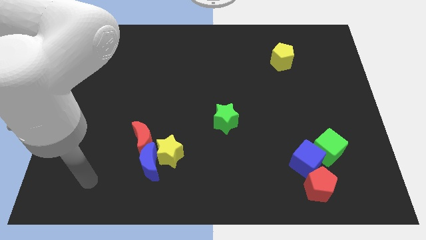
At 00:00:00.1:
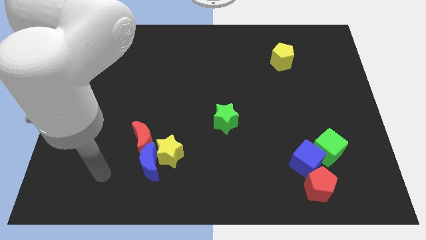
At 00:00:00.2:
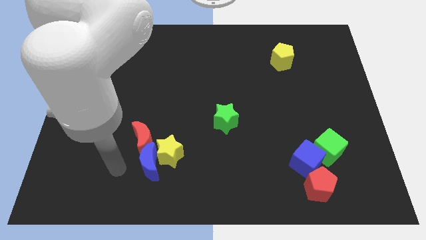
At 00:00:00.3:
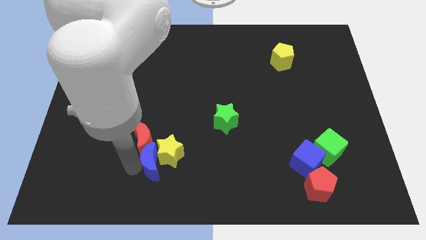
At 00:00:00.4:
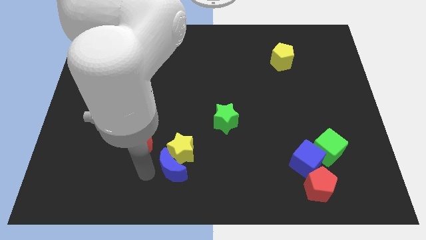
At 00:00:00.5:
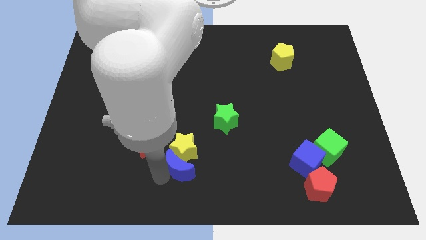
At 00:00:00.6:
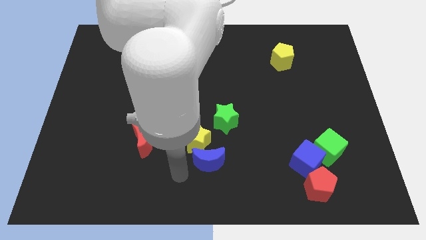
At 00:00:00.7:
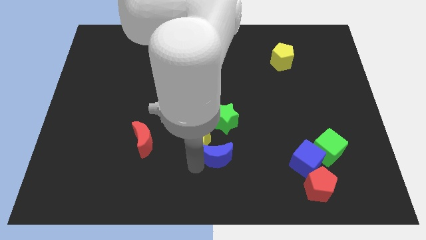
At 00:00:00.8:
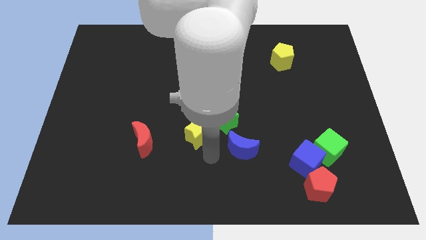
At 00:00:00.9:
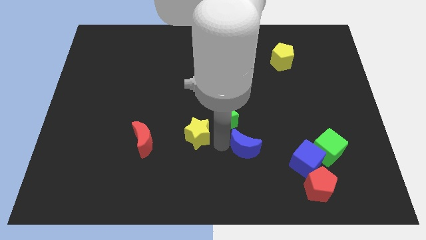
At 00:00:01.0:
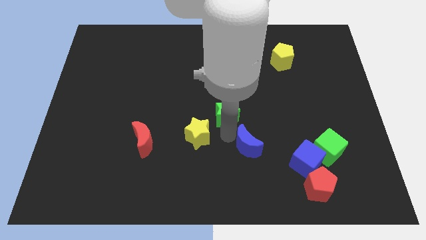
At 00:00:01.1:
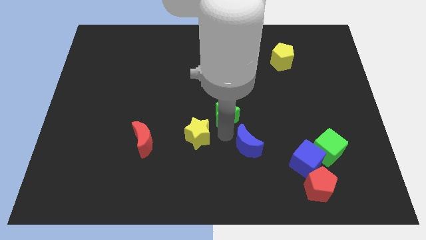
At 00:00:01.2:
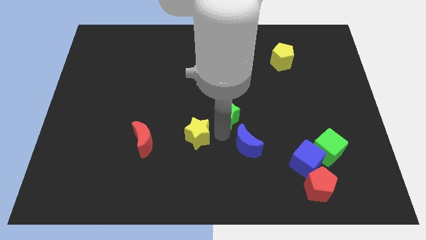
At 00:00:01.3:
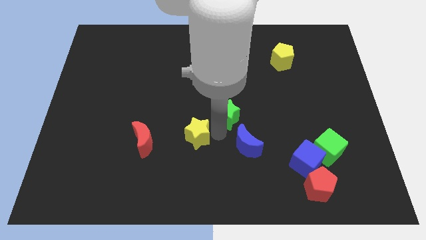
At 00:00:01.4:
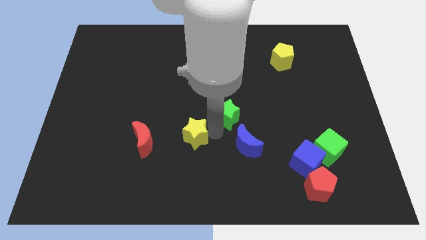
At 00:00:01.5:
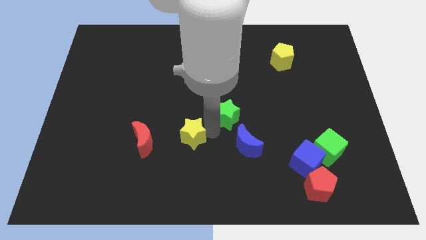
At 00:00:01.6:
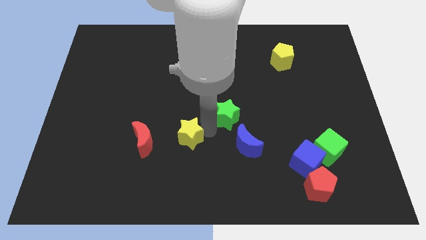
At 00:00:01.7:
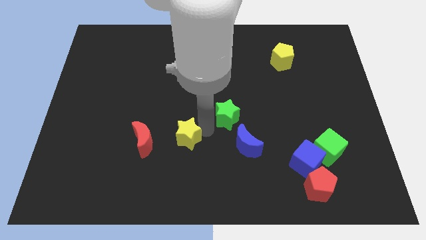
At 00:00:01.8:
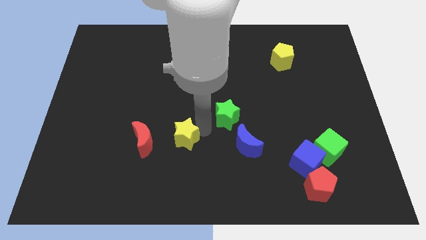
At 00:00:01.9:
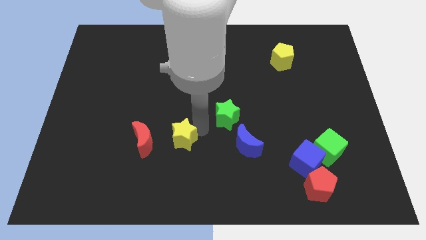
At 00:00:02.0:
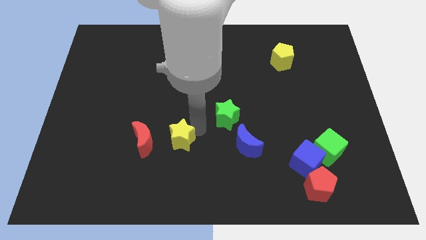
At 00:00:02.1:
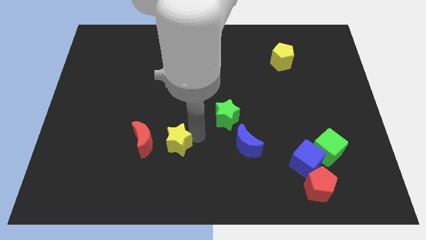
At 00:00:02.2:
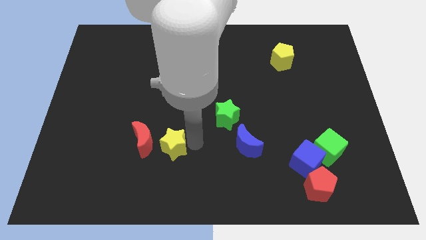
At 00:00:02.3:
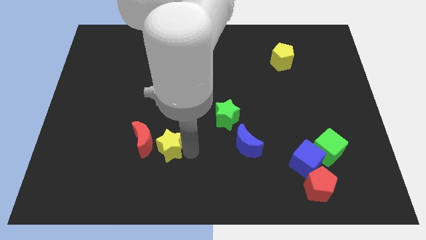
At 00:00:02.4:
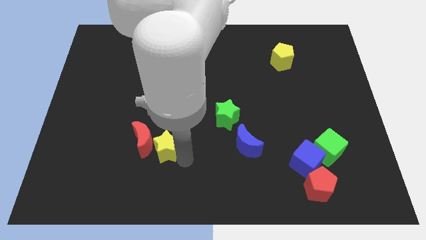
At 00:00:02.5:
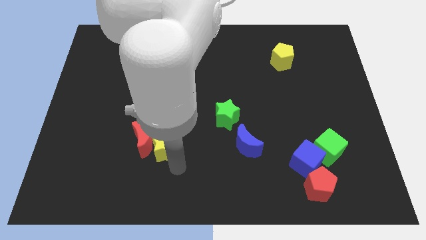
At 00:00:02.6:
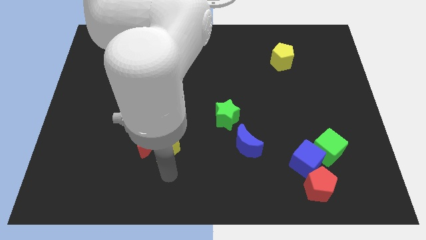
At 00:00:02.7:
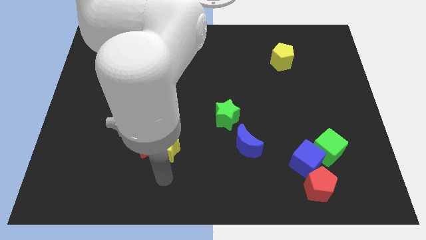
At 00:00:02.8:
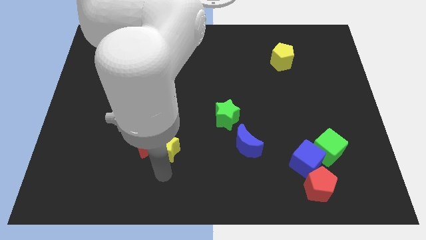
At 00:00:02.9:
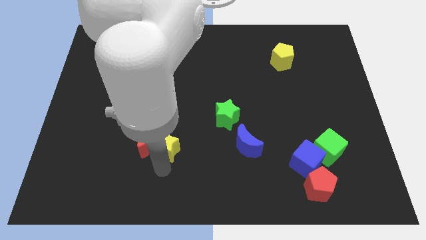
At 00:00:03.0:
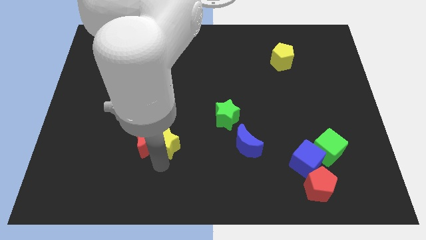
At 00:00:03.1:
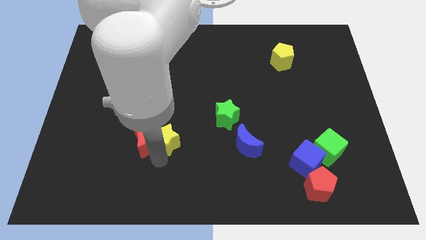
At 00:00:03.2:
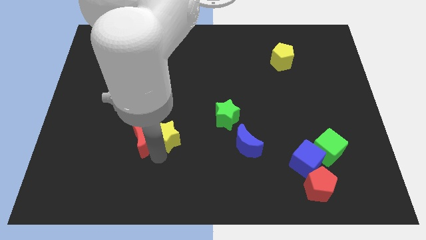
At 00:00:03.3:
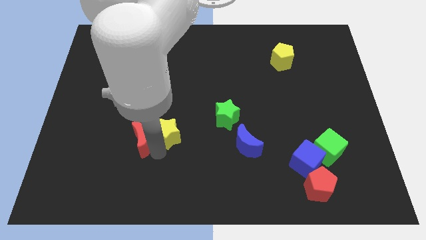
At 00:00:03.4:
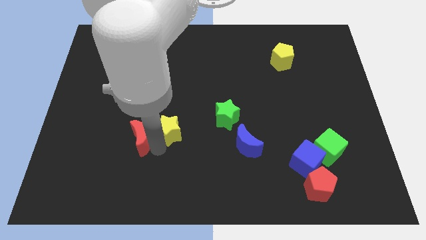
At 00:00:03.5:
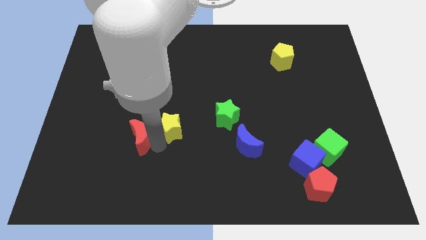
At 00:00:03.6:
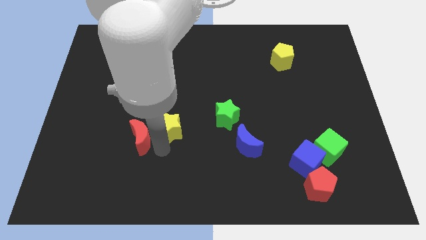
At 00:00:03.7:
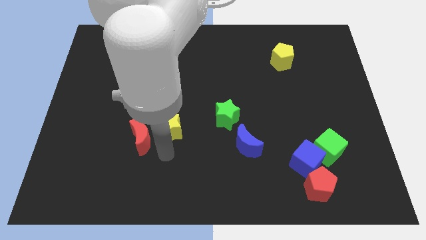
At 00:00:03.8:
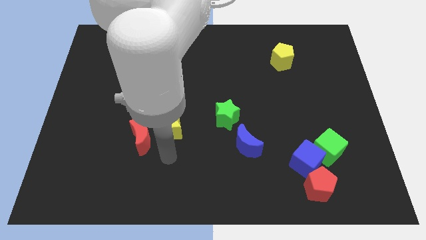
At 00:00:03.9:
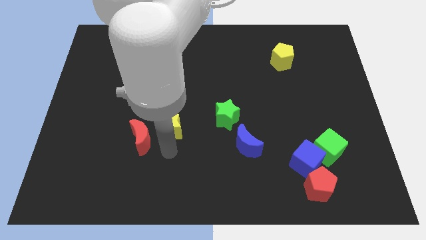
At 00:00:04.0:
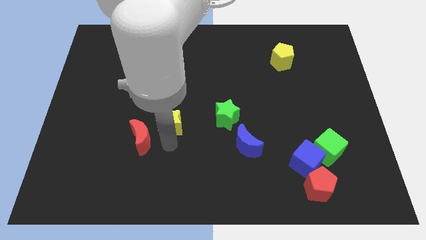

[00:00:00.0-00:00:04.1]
push the yellow star a little bit upwards

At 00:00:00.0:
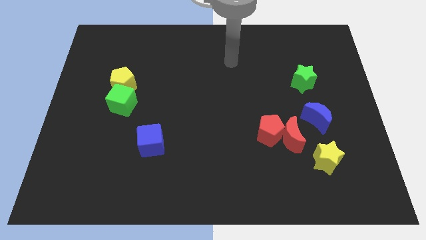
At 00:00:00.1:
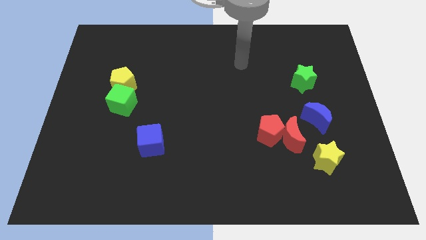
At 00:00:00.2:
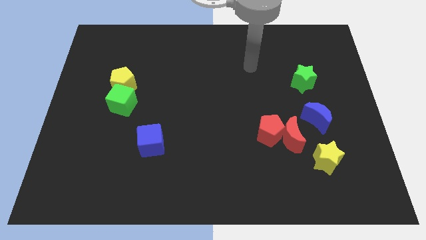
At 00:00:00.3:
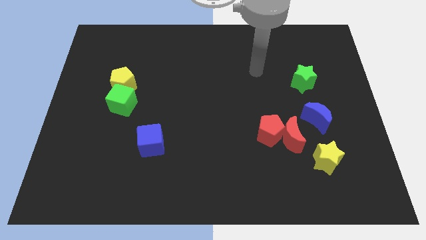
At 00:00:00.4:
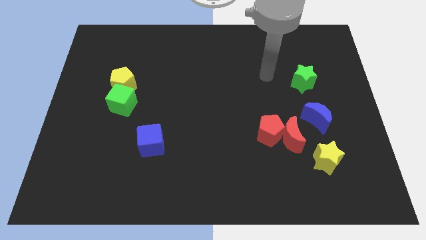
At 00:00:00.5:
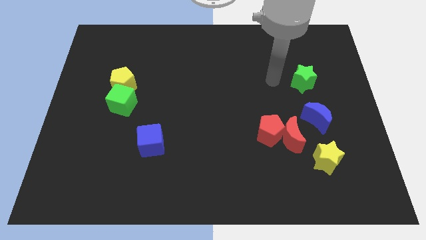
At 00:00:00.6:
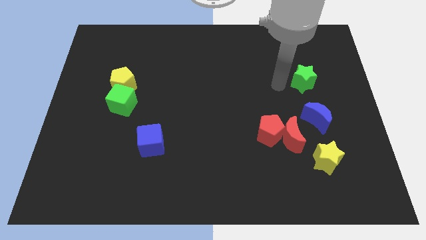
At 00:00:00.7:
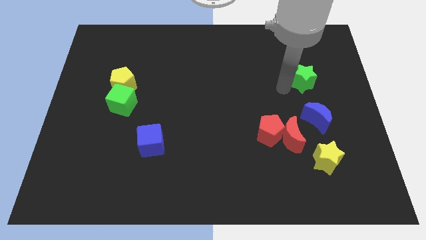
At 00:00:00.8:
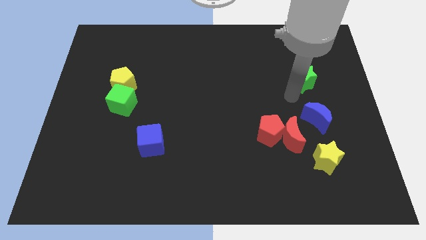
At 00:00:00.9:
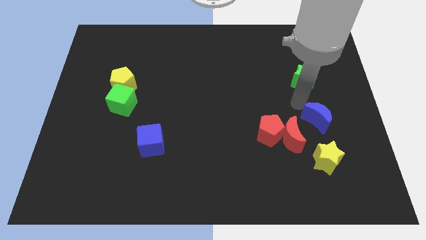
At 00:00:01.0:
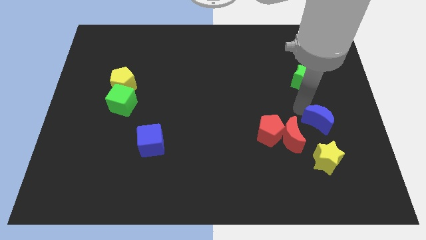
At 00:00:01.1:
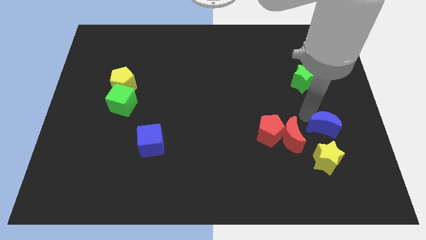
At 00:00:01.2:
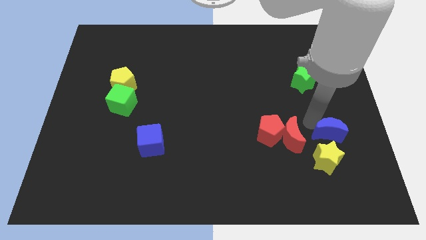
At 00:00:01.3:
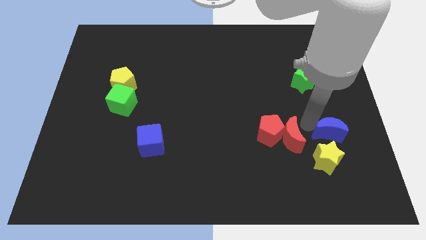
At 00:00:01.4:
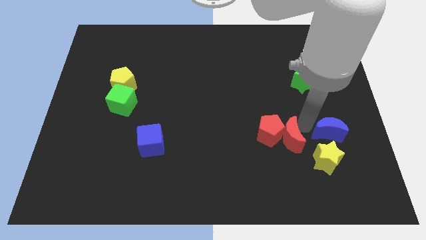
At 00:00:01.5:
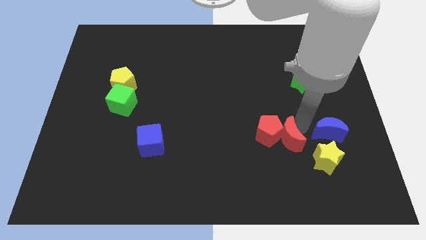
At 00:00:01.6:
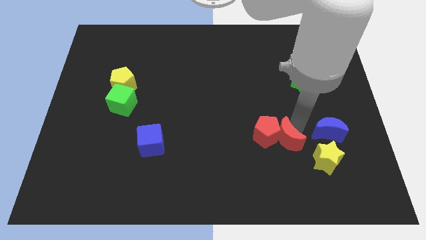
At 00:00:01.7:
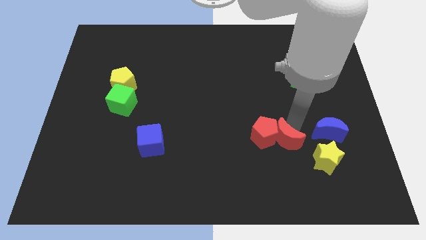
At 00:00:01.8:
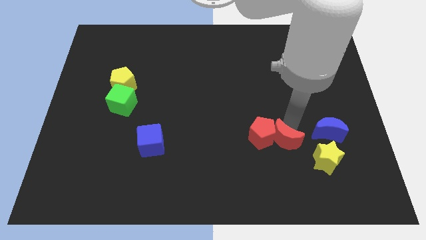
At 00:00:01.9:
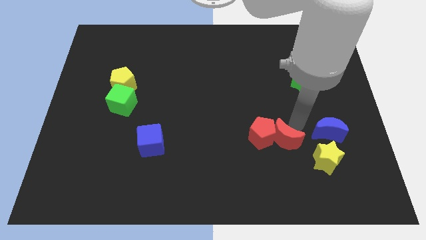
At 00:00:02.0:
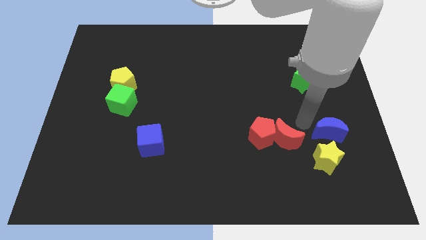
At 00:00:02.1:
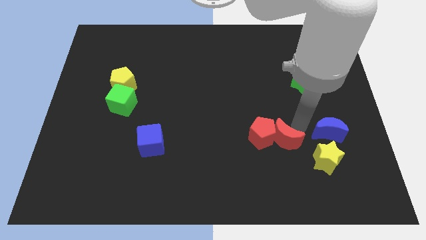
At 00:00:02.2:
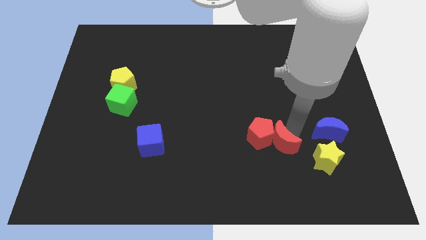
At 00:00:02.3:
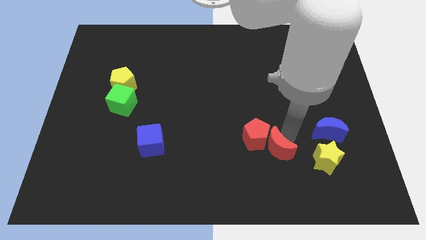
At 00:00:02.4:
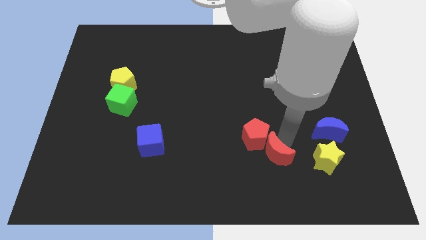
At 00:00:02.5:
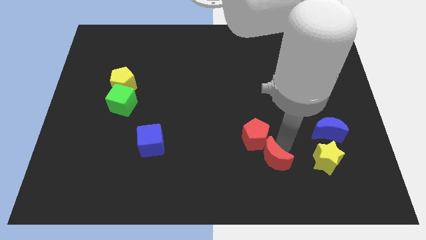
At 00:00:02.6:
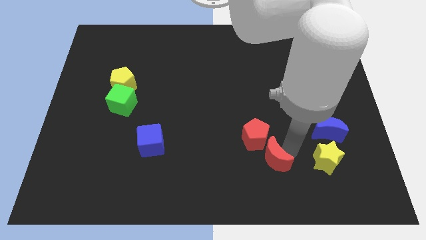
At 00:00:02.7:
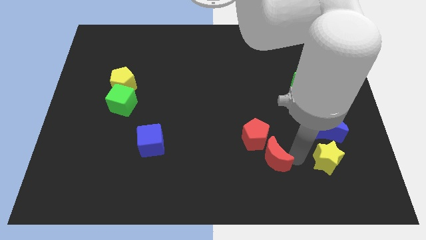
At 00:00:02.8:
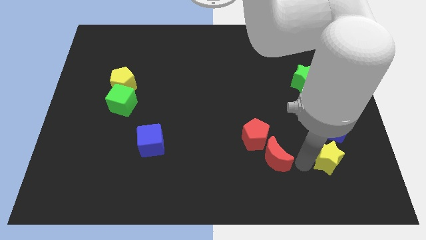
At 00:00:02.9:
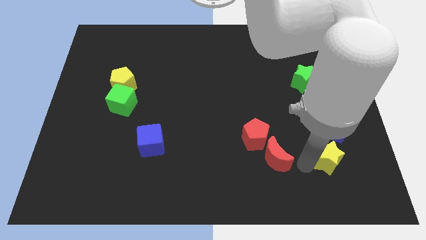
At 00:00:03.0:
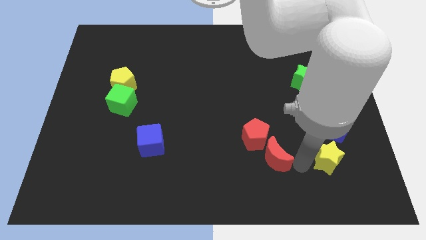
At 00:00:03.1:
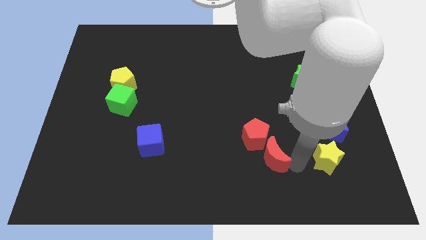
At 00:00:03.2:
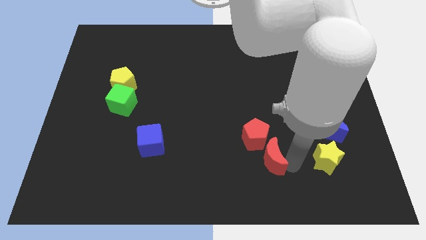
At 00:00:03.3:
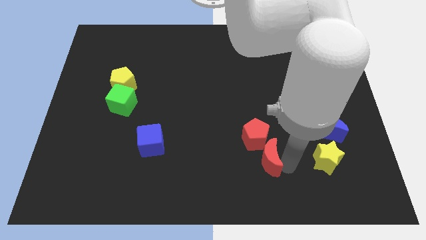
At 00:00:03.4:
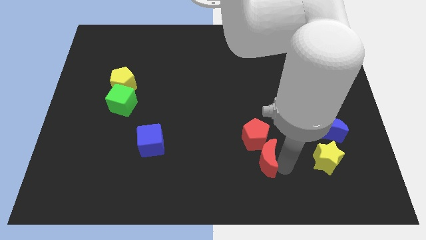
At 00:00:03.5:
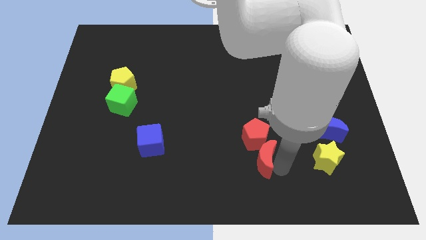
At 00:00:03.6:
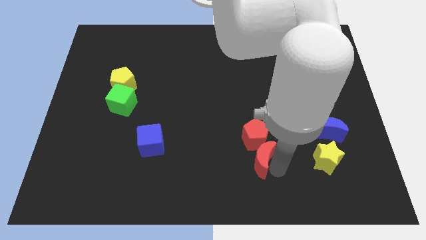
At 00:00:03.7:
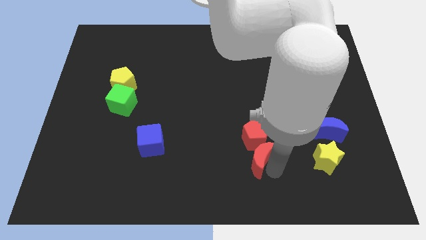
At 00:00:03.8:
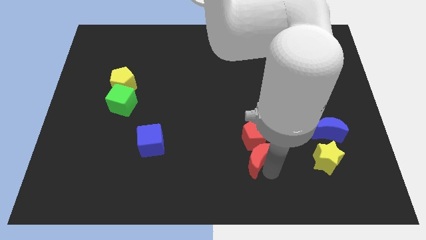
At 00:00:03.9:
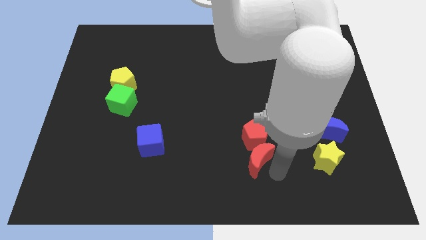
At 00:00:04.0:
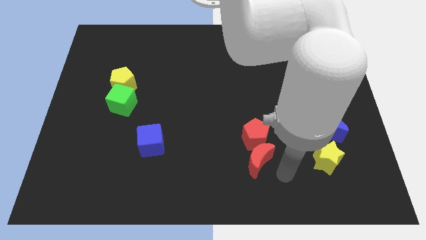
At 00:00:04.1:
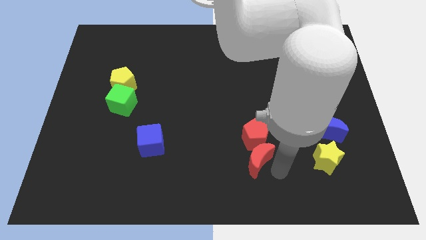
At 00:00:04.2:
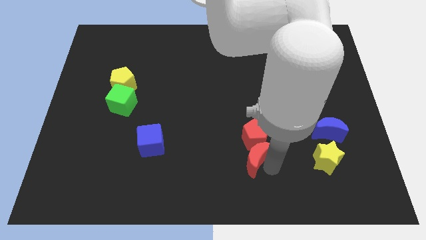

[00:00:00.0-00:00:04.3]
slide the red moon somewhat left
